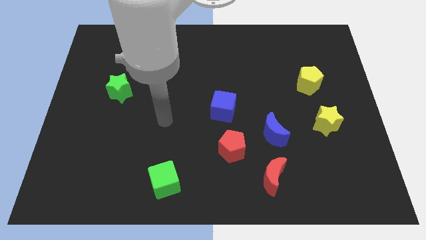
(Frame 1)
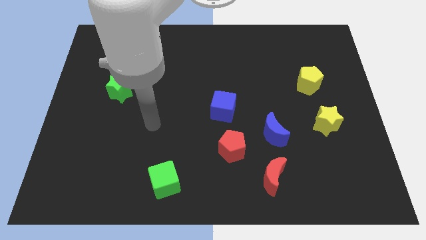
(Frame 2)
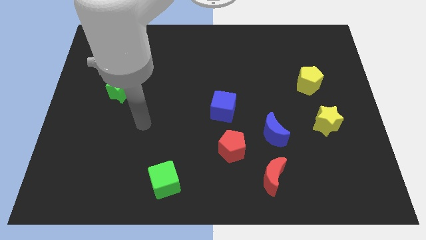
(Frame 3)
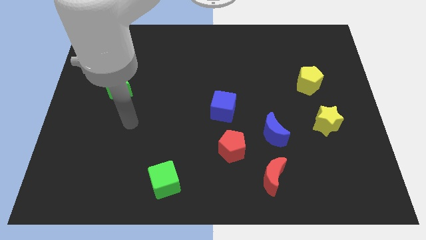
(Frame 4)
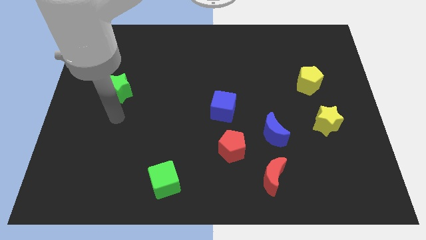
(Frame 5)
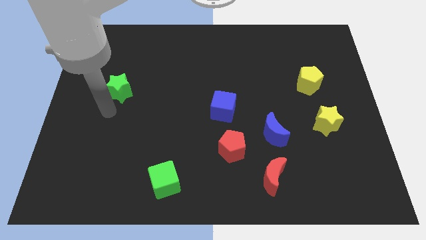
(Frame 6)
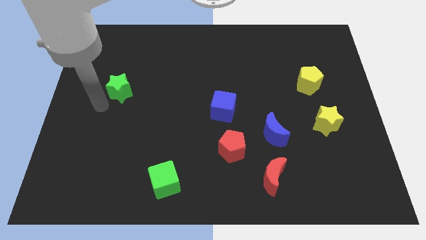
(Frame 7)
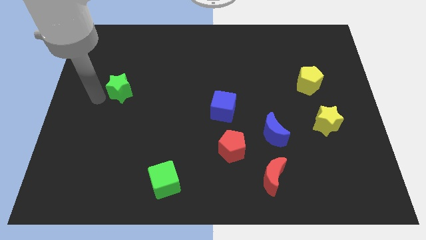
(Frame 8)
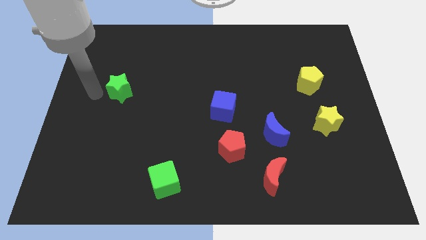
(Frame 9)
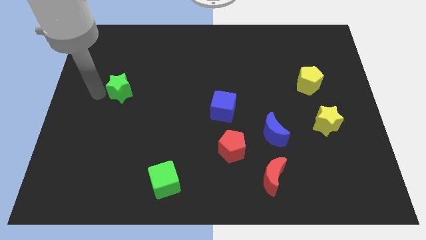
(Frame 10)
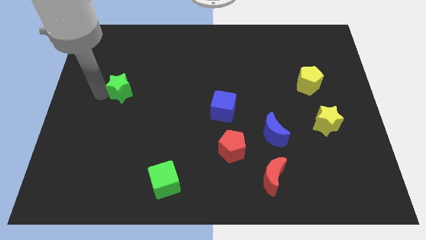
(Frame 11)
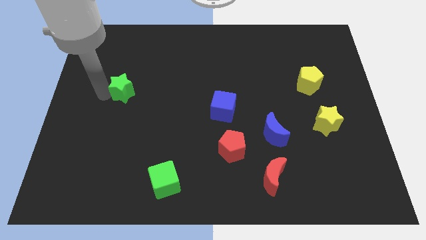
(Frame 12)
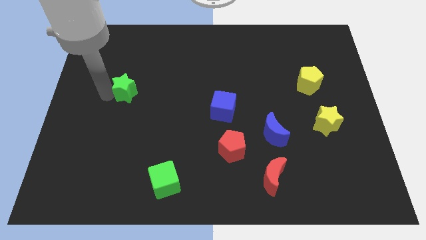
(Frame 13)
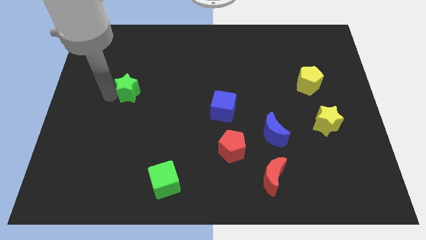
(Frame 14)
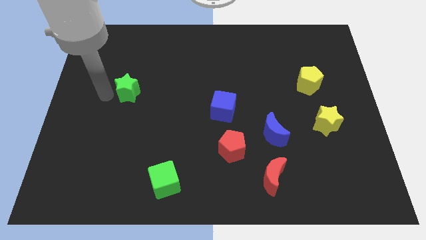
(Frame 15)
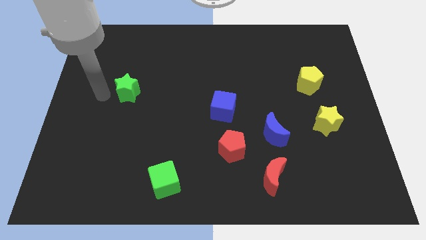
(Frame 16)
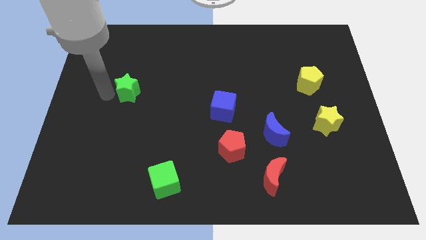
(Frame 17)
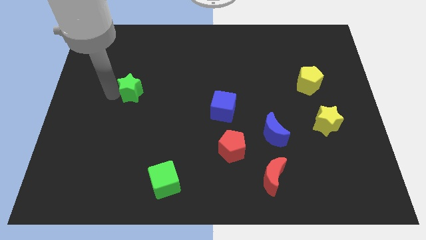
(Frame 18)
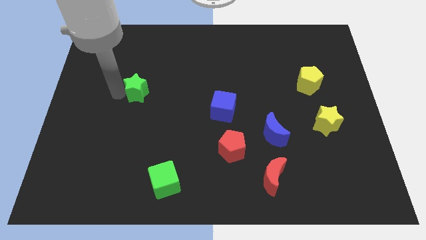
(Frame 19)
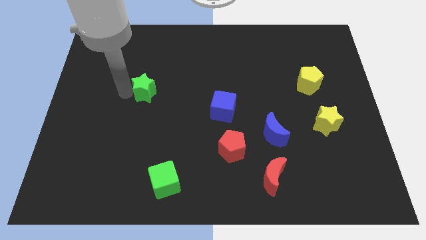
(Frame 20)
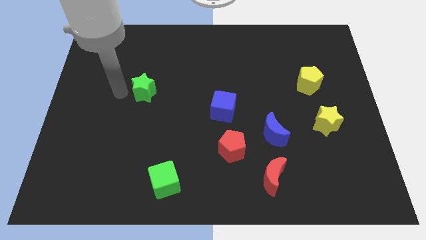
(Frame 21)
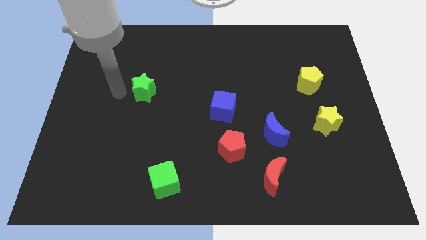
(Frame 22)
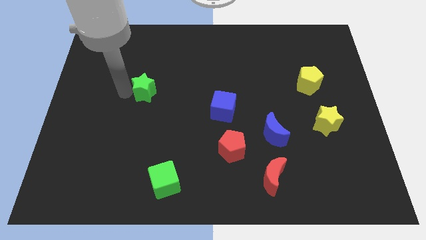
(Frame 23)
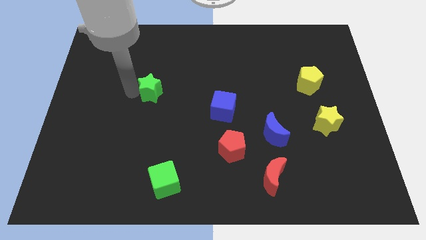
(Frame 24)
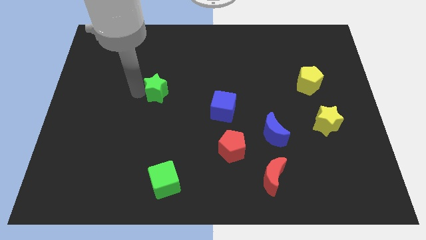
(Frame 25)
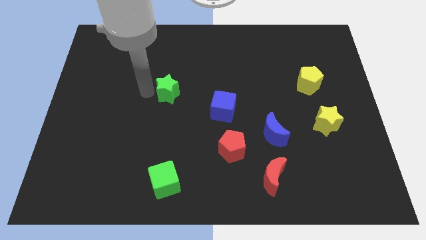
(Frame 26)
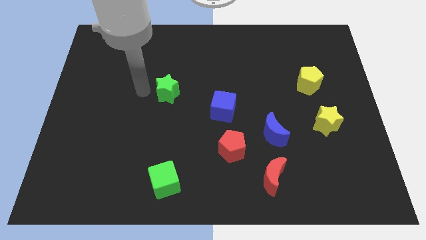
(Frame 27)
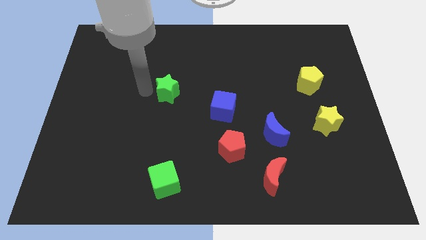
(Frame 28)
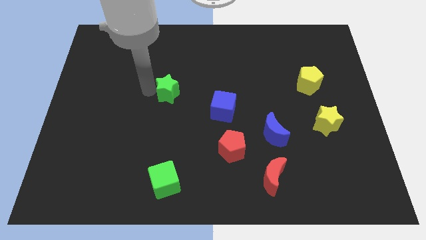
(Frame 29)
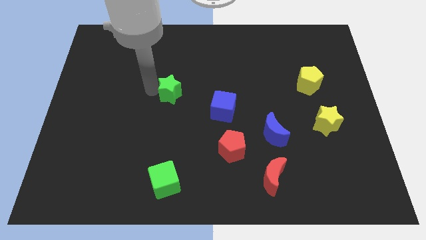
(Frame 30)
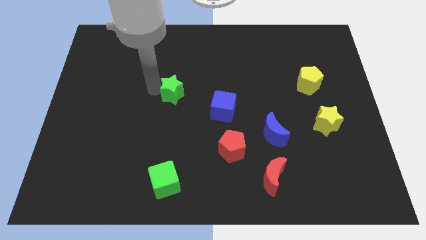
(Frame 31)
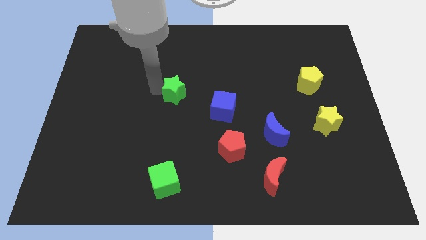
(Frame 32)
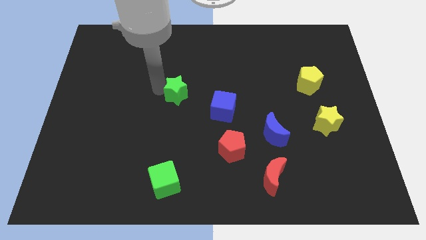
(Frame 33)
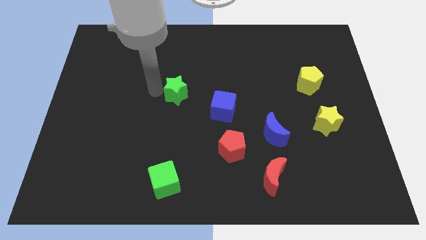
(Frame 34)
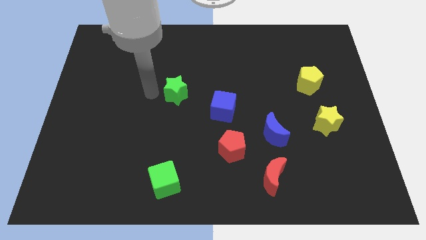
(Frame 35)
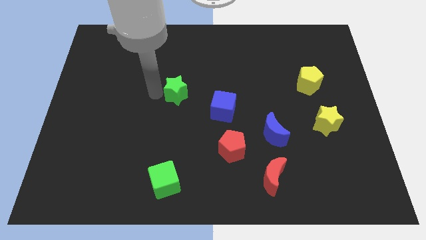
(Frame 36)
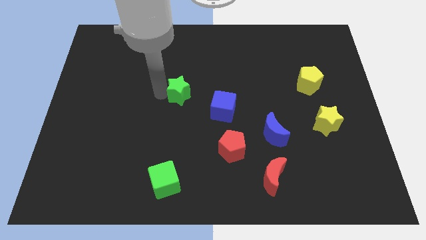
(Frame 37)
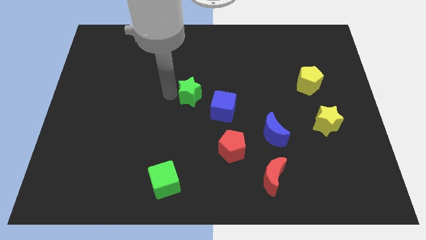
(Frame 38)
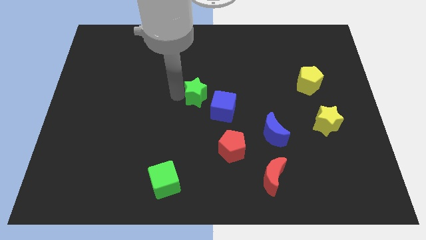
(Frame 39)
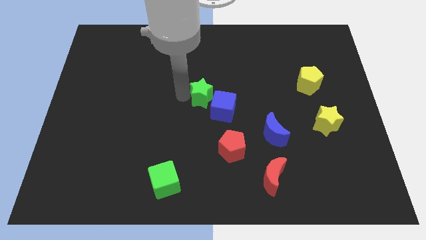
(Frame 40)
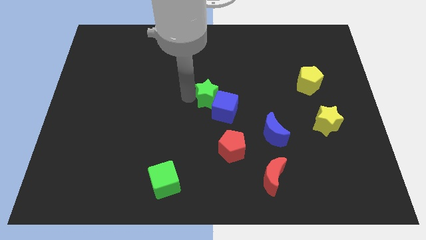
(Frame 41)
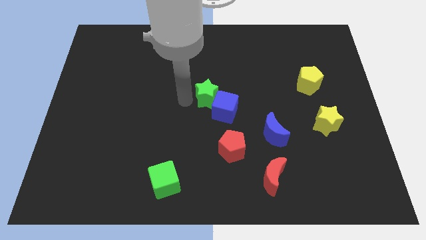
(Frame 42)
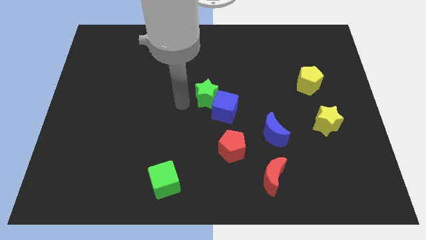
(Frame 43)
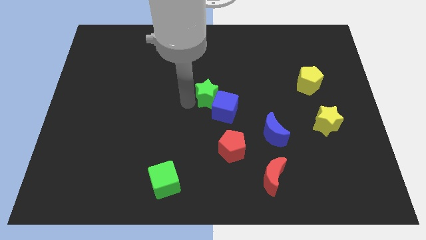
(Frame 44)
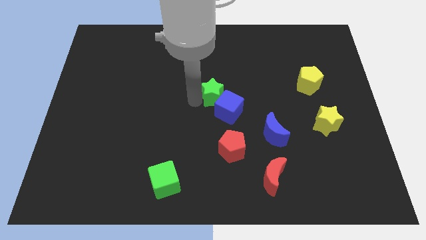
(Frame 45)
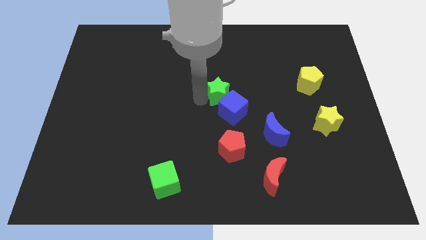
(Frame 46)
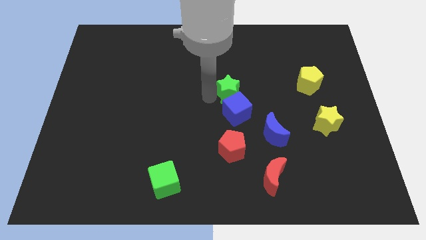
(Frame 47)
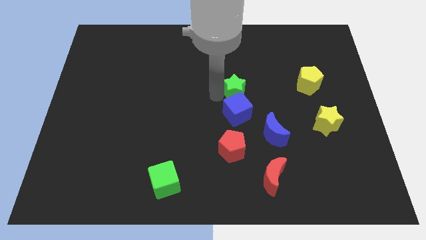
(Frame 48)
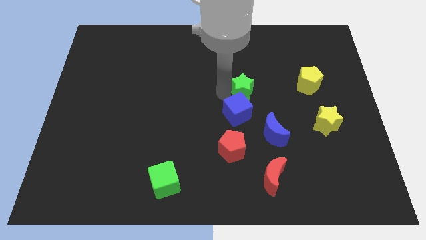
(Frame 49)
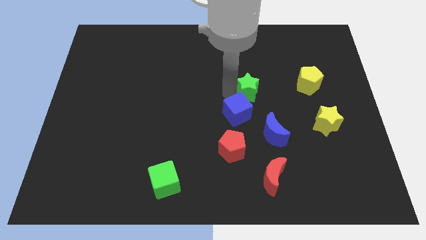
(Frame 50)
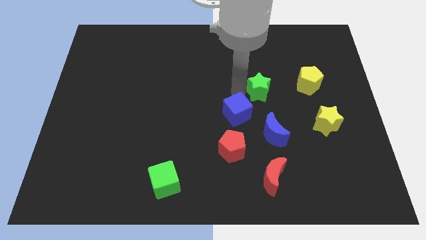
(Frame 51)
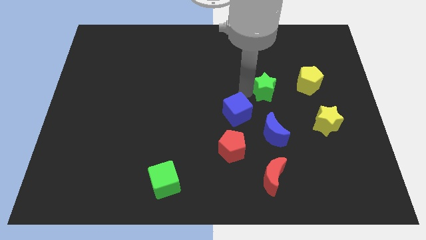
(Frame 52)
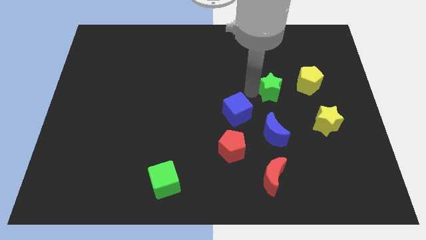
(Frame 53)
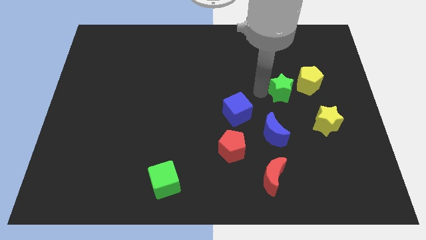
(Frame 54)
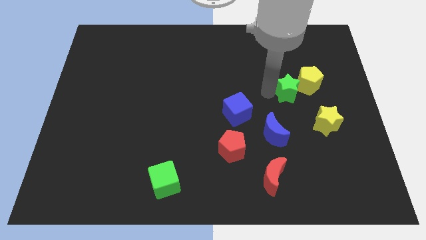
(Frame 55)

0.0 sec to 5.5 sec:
push the green star to the yellow pentagon

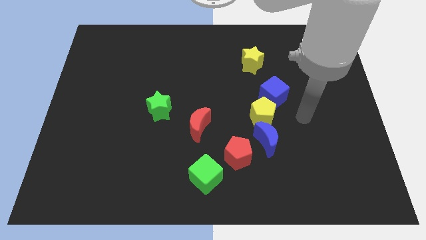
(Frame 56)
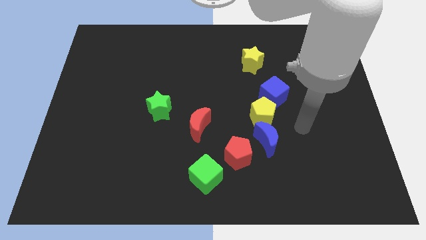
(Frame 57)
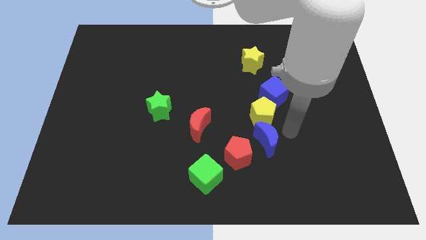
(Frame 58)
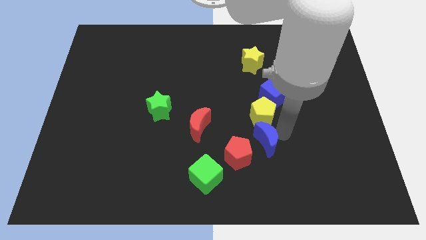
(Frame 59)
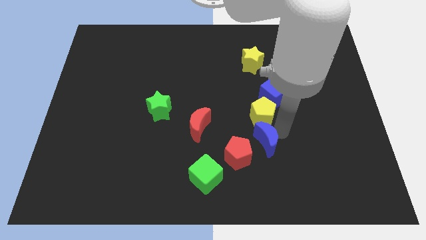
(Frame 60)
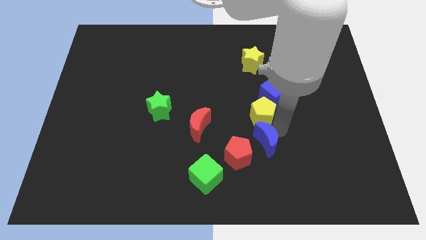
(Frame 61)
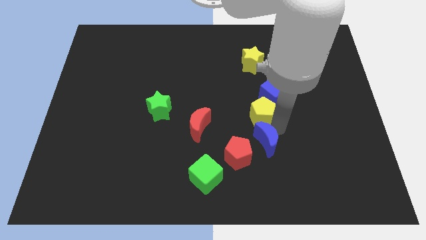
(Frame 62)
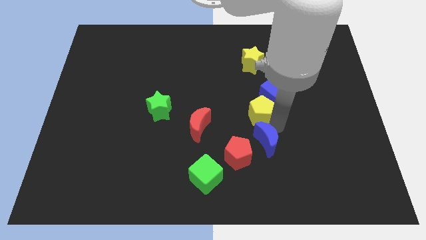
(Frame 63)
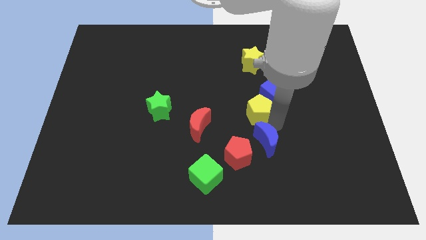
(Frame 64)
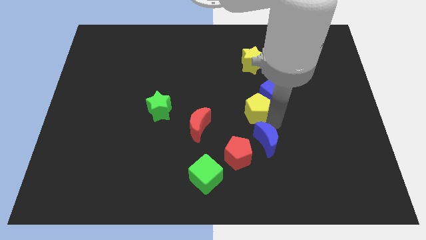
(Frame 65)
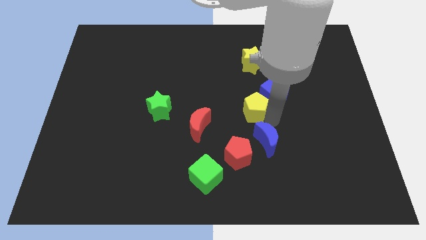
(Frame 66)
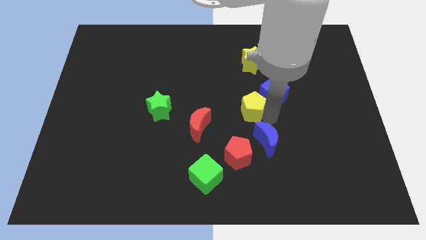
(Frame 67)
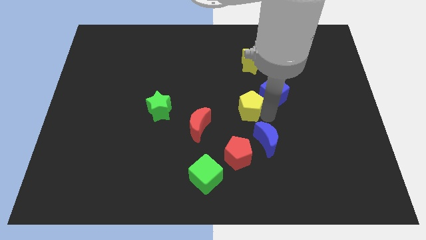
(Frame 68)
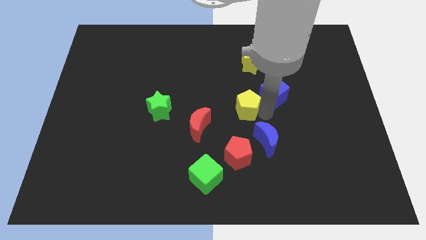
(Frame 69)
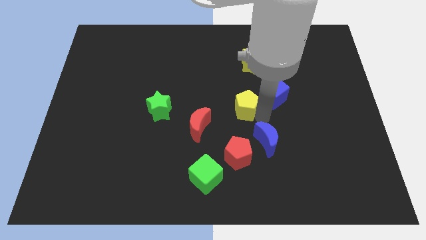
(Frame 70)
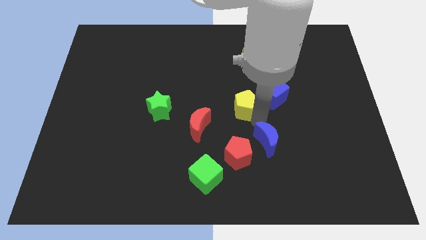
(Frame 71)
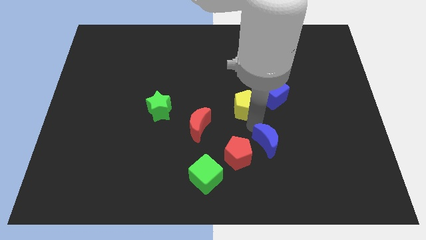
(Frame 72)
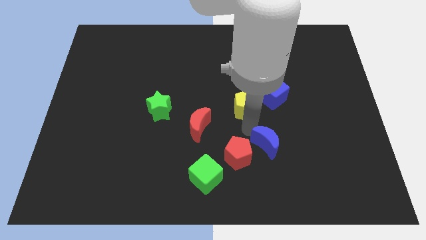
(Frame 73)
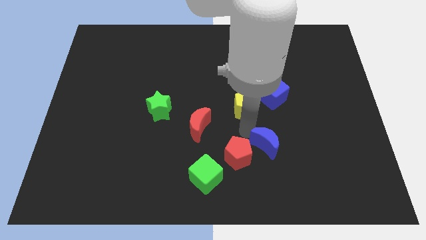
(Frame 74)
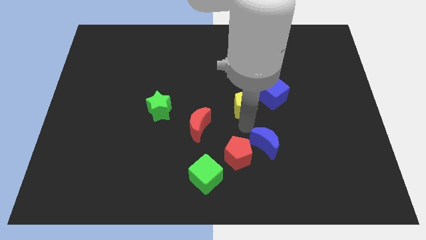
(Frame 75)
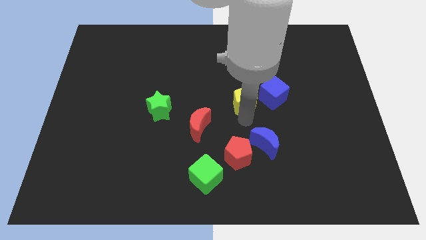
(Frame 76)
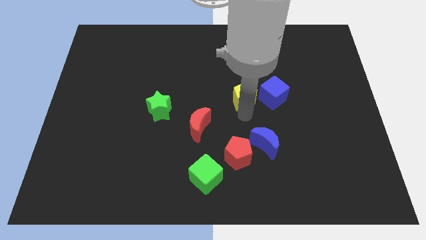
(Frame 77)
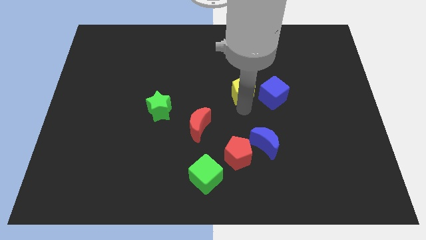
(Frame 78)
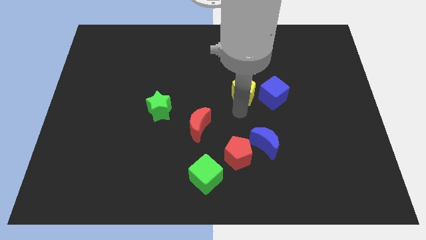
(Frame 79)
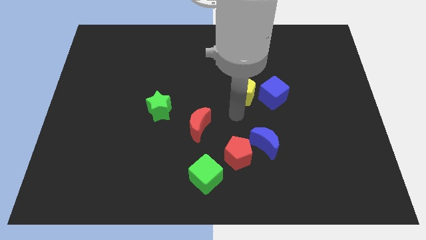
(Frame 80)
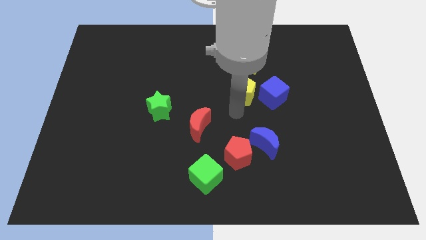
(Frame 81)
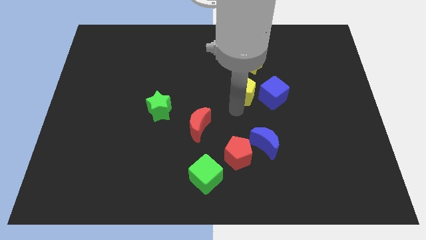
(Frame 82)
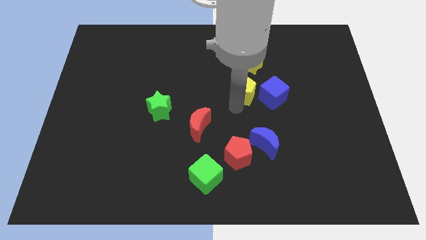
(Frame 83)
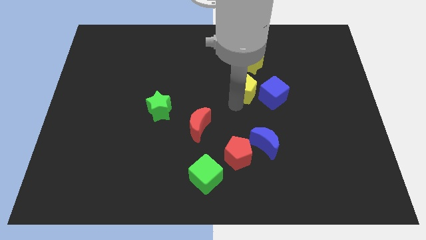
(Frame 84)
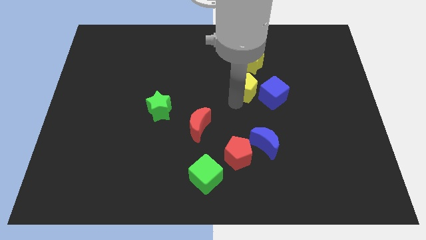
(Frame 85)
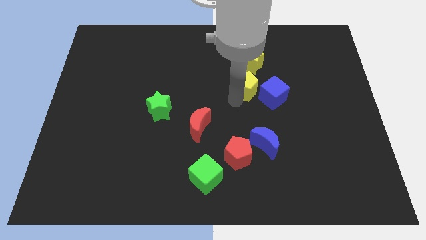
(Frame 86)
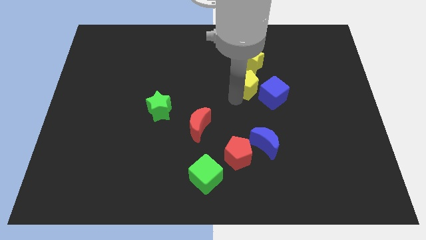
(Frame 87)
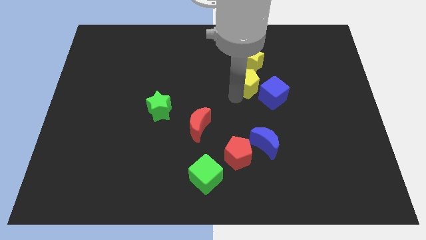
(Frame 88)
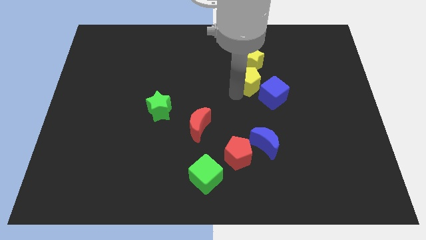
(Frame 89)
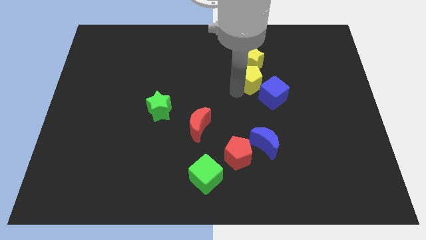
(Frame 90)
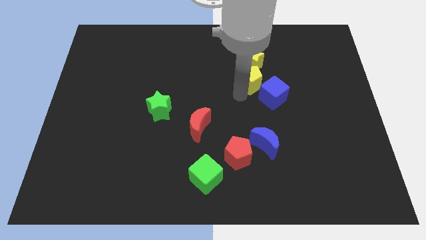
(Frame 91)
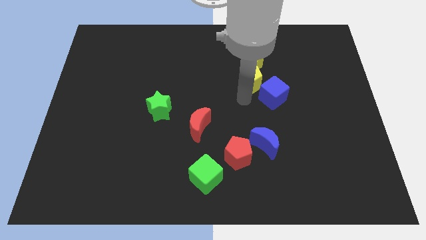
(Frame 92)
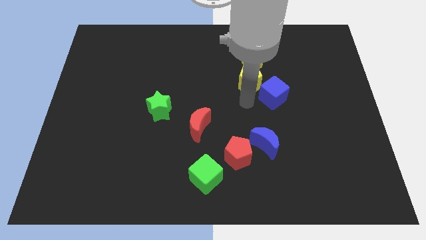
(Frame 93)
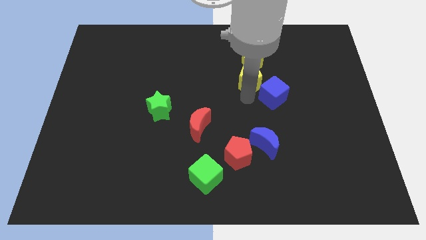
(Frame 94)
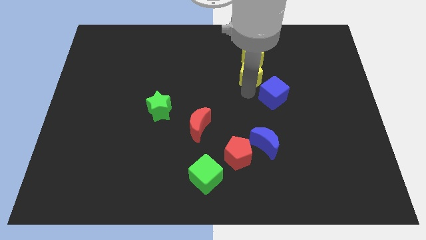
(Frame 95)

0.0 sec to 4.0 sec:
put the yellow pentagon close to the yellow star
